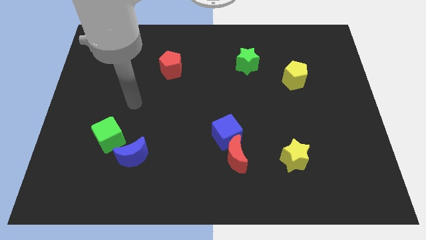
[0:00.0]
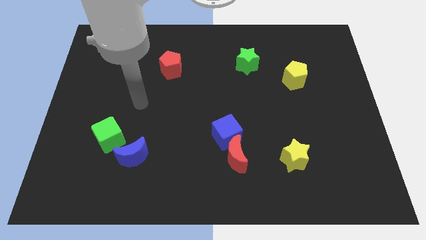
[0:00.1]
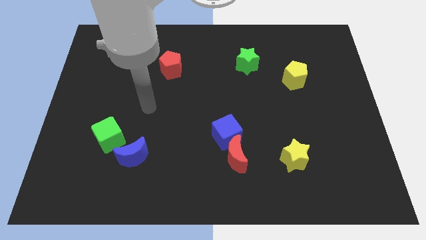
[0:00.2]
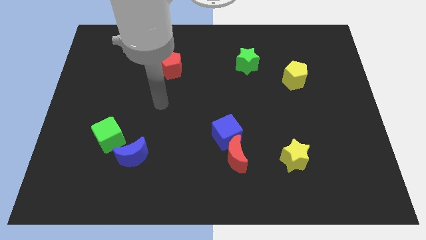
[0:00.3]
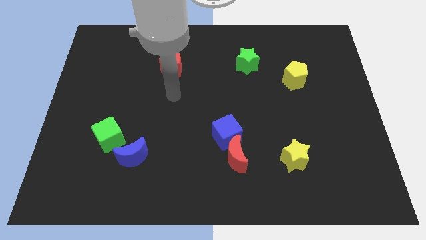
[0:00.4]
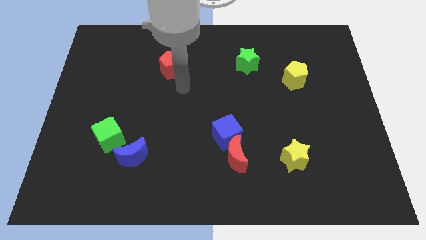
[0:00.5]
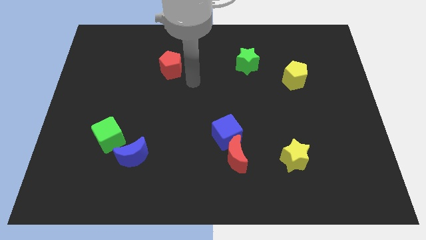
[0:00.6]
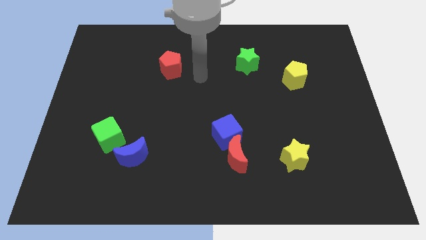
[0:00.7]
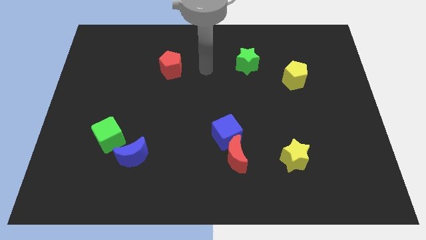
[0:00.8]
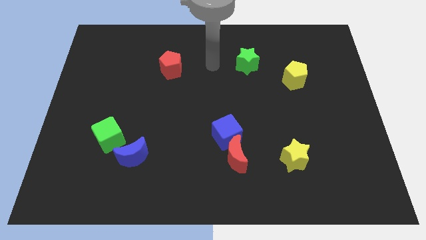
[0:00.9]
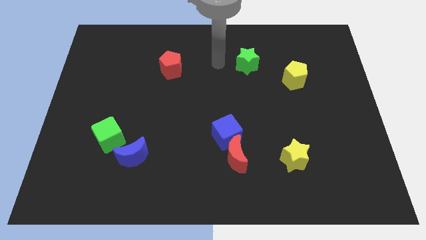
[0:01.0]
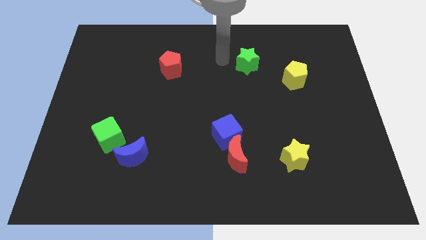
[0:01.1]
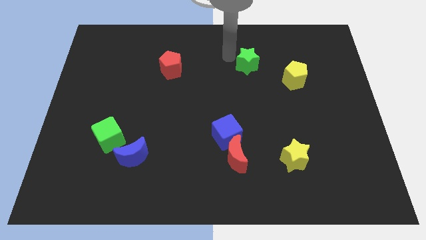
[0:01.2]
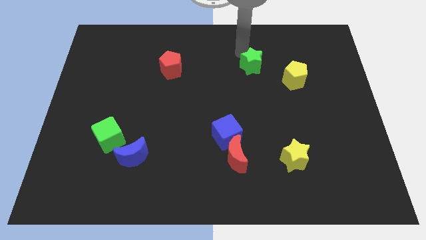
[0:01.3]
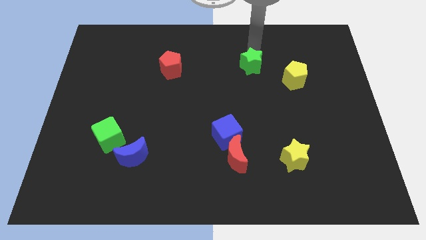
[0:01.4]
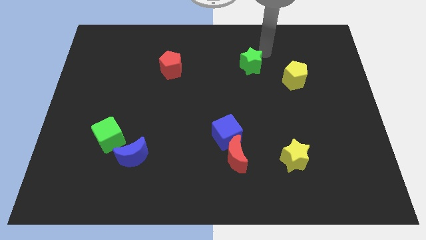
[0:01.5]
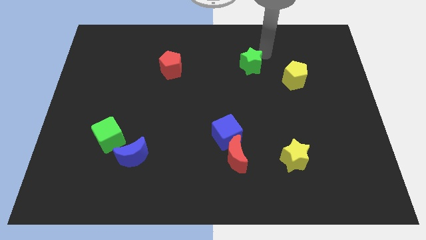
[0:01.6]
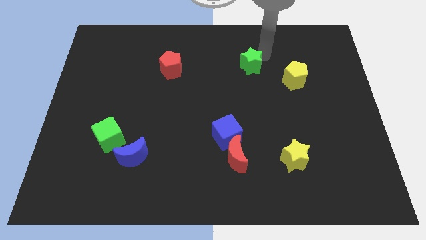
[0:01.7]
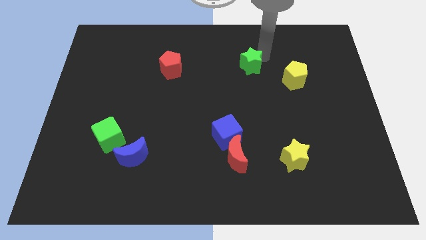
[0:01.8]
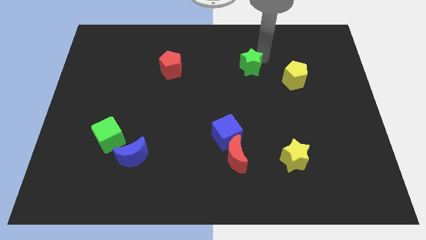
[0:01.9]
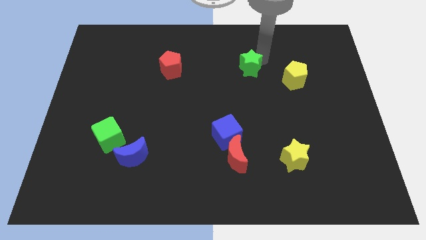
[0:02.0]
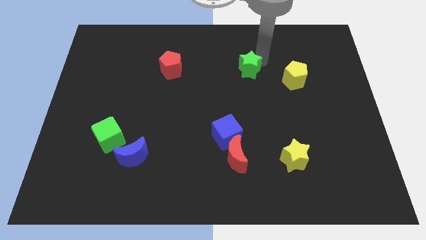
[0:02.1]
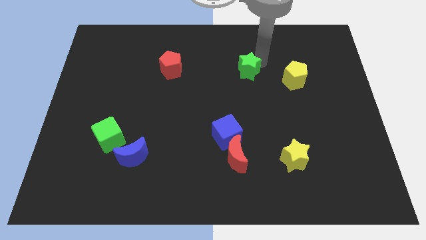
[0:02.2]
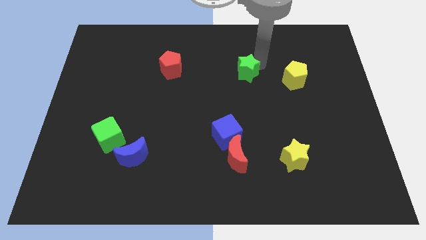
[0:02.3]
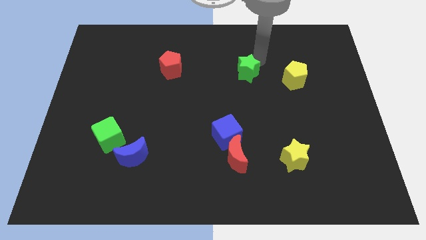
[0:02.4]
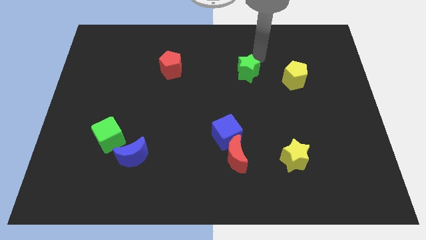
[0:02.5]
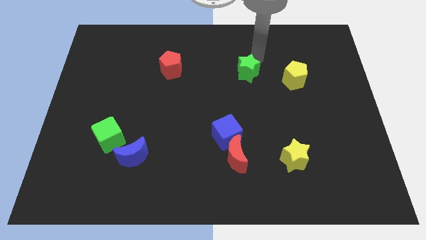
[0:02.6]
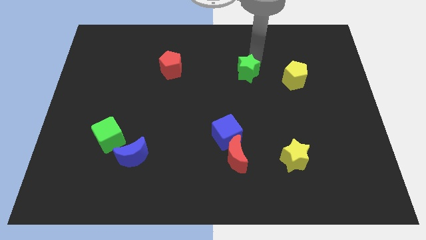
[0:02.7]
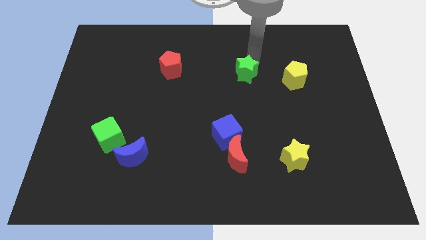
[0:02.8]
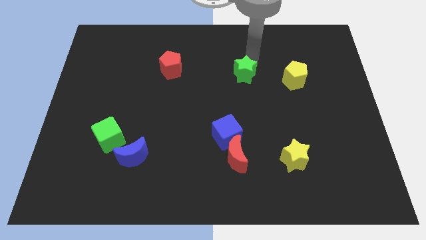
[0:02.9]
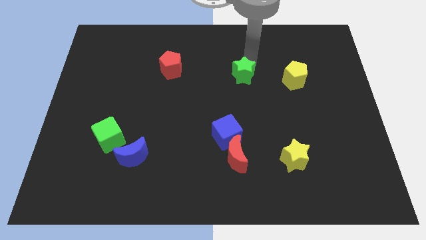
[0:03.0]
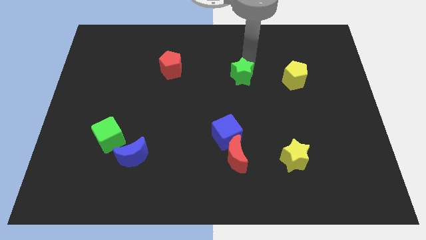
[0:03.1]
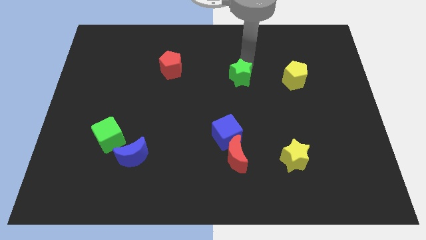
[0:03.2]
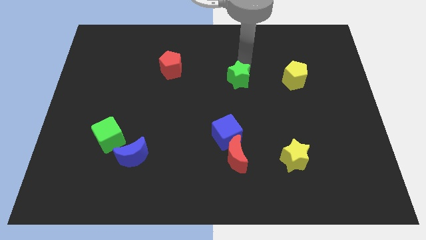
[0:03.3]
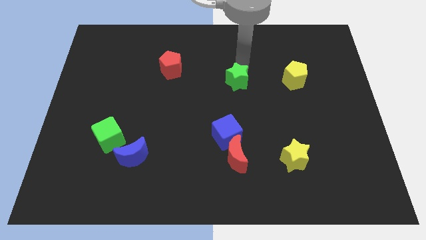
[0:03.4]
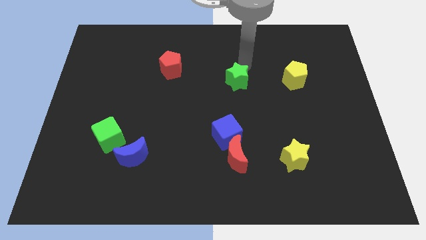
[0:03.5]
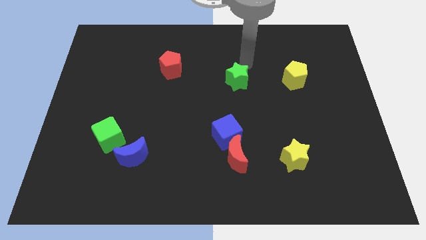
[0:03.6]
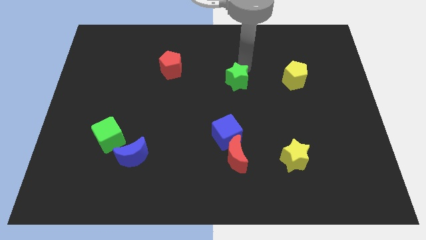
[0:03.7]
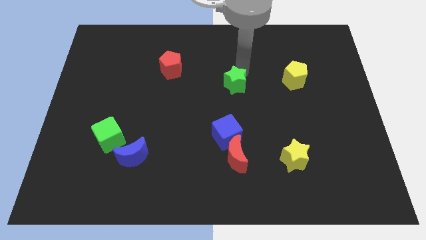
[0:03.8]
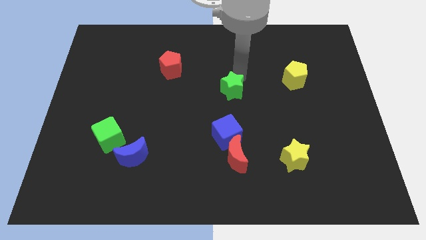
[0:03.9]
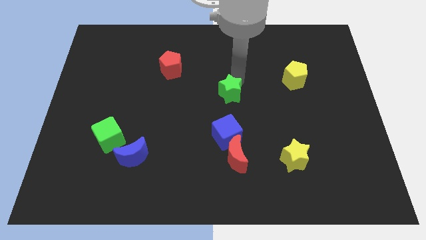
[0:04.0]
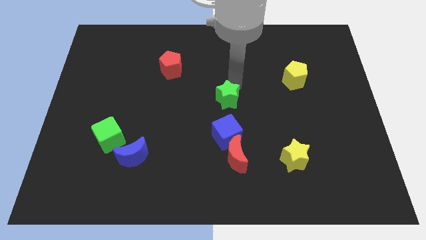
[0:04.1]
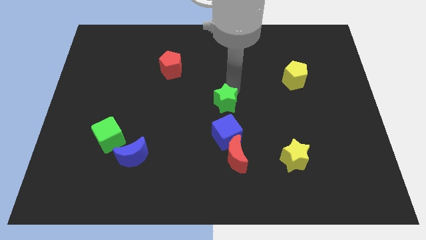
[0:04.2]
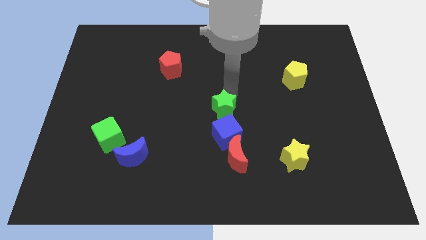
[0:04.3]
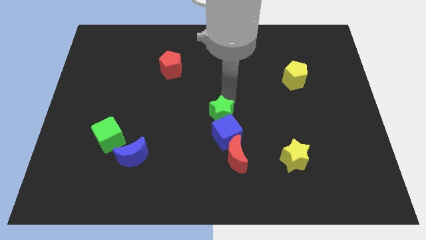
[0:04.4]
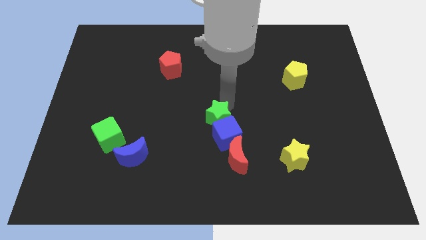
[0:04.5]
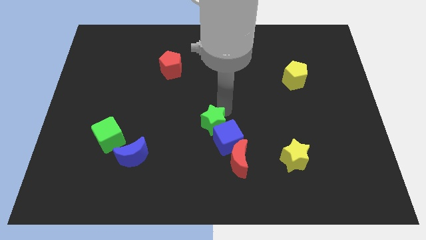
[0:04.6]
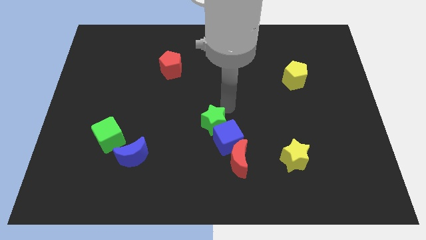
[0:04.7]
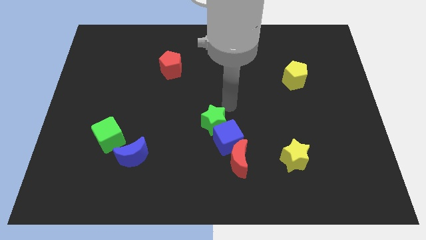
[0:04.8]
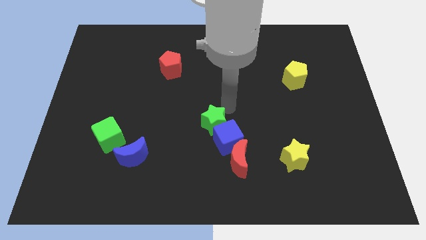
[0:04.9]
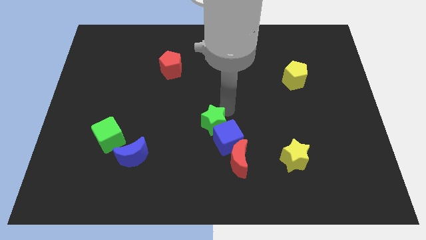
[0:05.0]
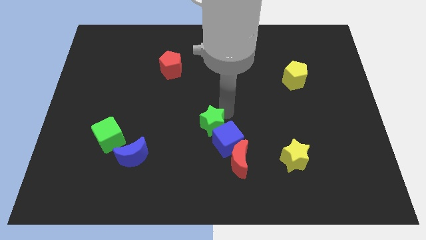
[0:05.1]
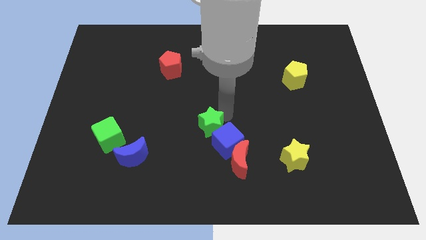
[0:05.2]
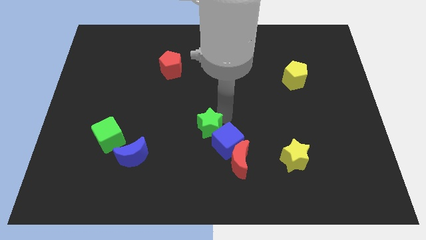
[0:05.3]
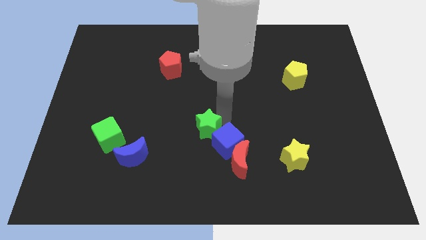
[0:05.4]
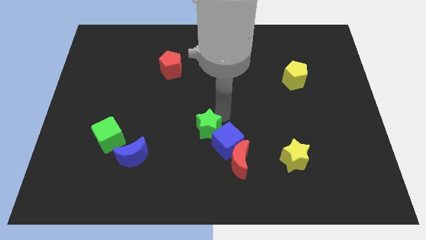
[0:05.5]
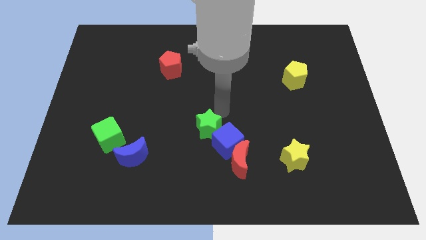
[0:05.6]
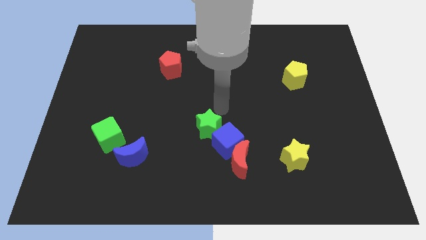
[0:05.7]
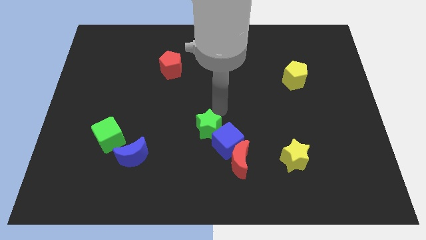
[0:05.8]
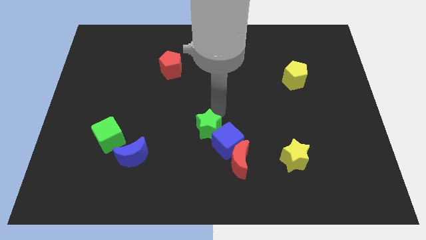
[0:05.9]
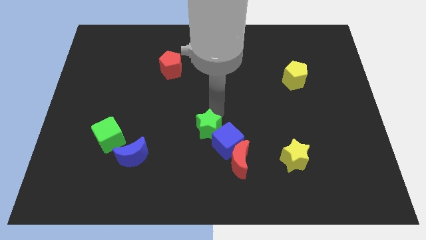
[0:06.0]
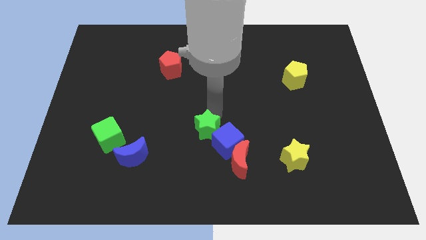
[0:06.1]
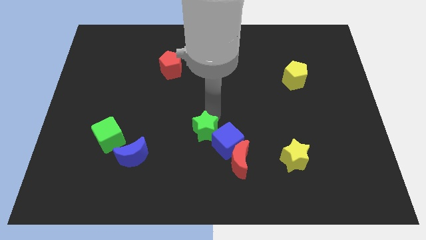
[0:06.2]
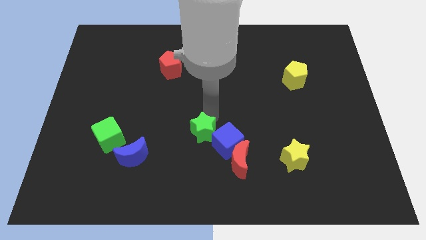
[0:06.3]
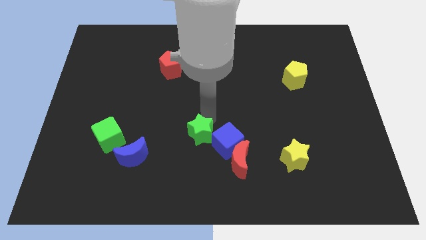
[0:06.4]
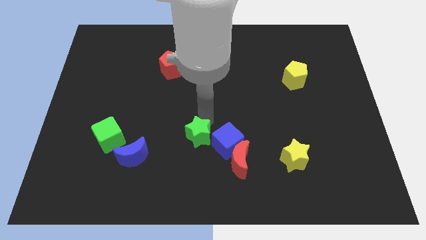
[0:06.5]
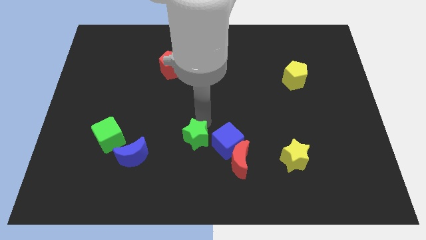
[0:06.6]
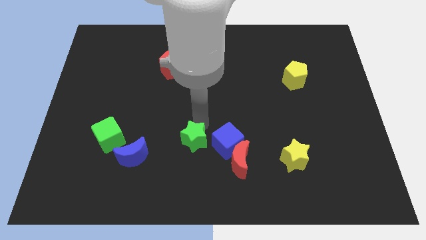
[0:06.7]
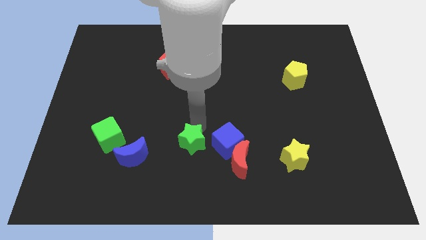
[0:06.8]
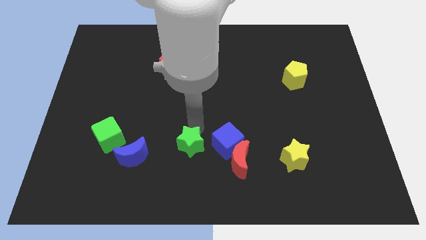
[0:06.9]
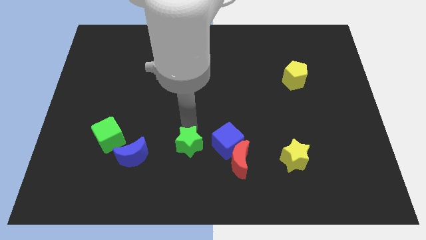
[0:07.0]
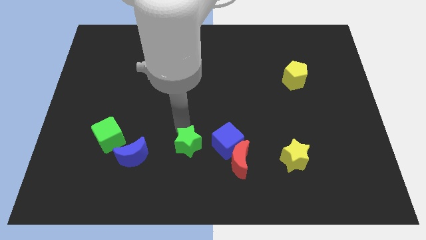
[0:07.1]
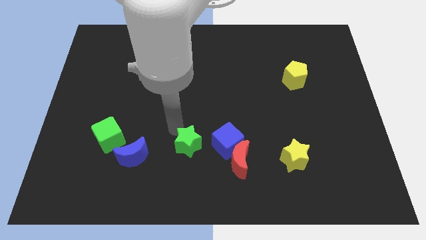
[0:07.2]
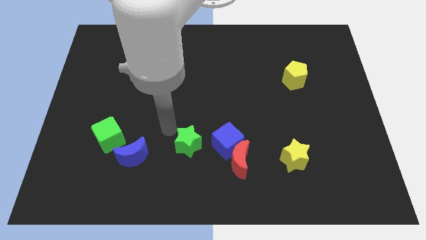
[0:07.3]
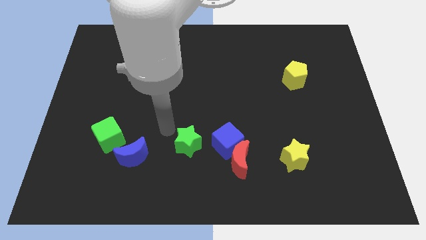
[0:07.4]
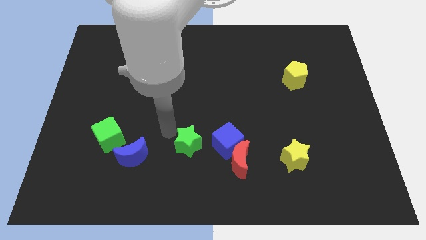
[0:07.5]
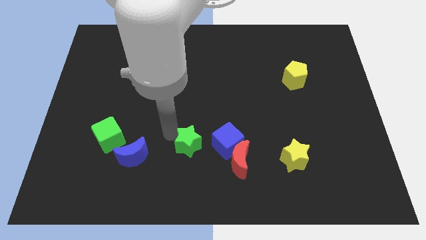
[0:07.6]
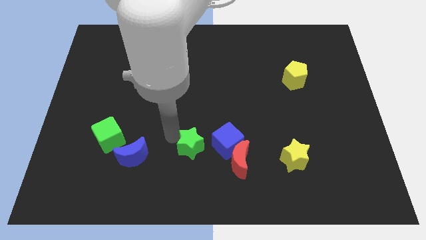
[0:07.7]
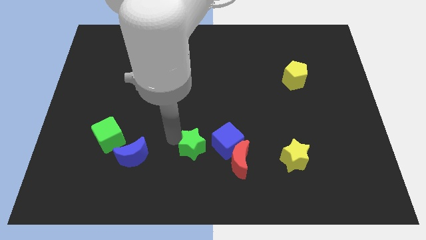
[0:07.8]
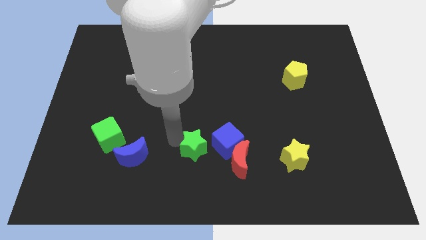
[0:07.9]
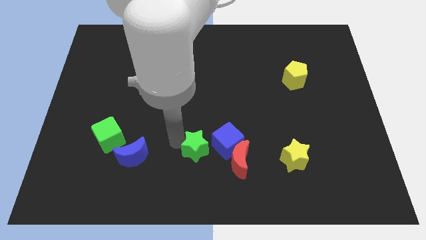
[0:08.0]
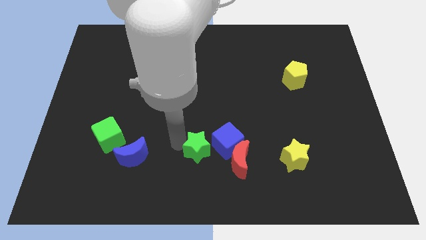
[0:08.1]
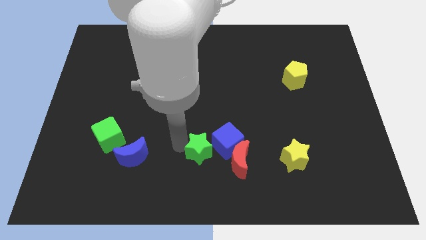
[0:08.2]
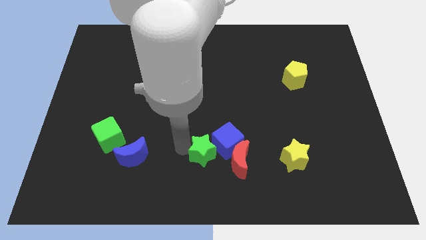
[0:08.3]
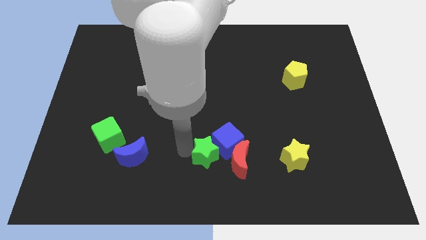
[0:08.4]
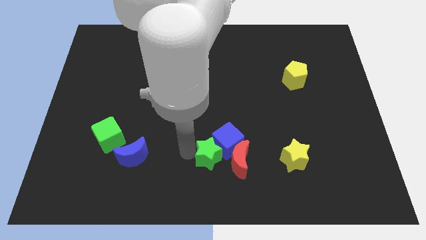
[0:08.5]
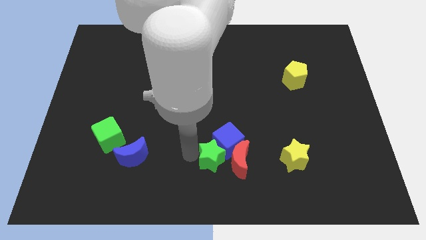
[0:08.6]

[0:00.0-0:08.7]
push the green star to the bottom left side of the red moon
